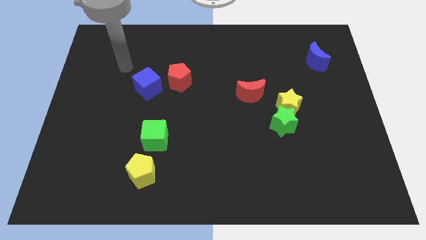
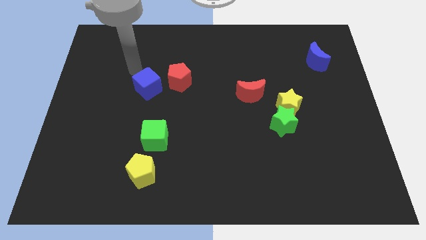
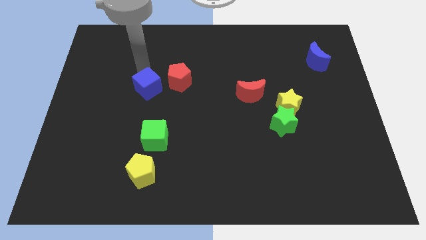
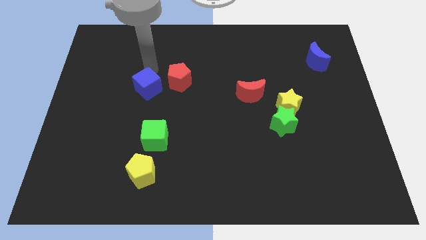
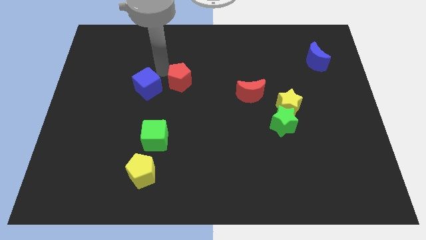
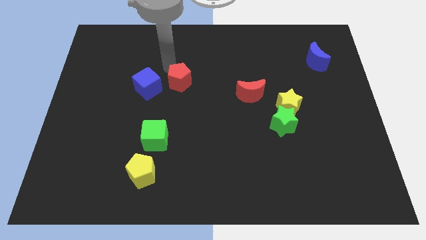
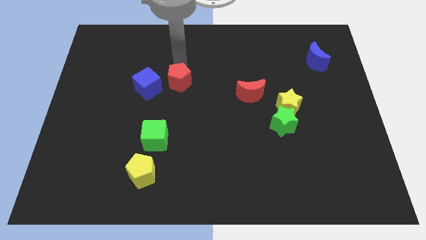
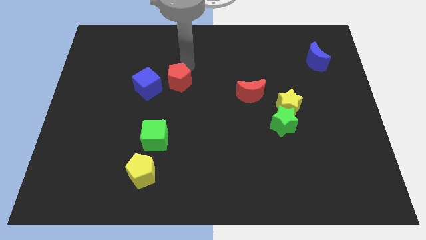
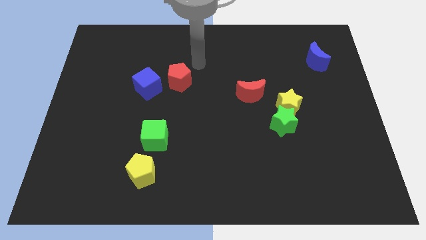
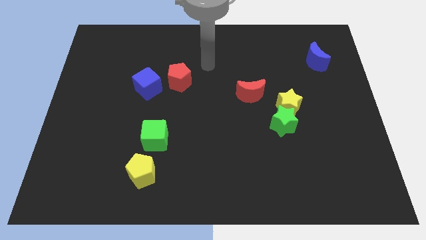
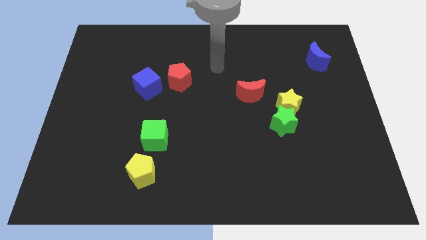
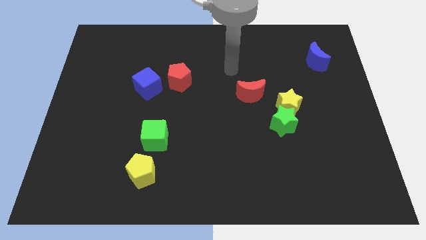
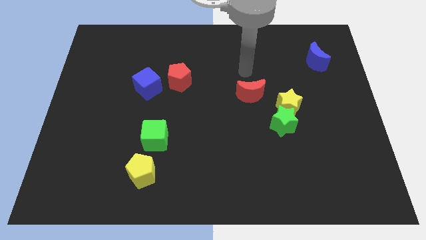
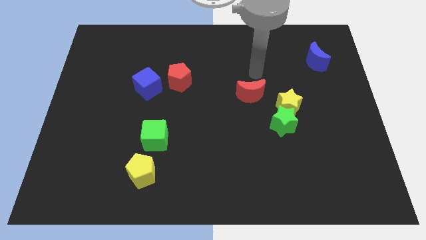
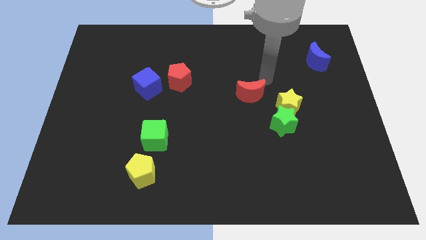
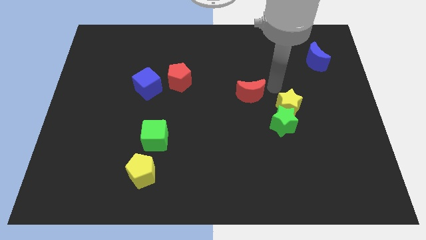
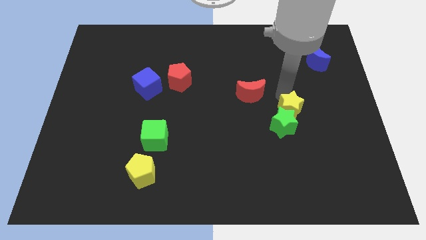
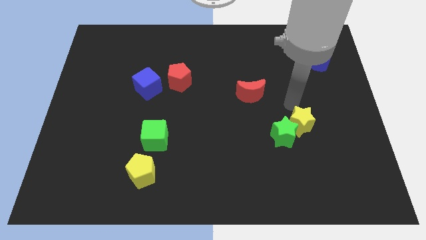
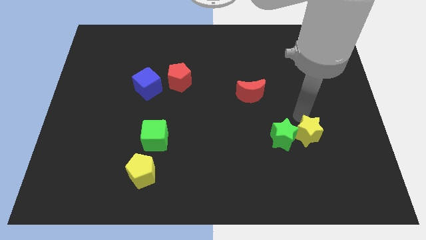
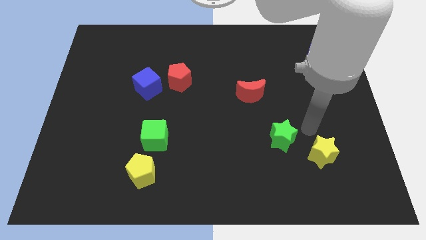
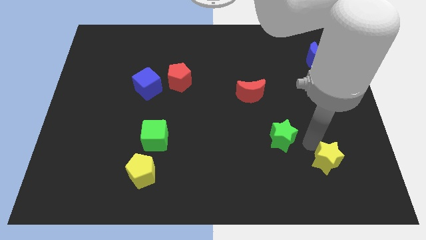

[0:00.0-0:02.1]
pull the green star apart from the yellow star

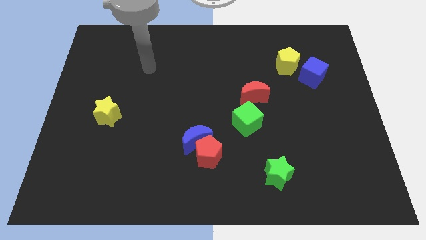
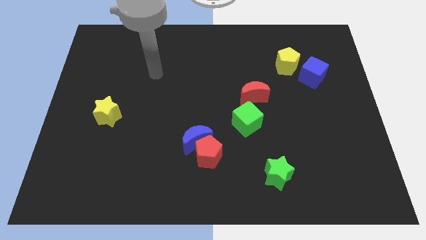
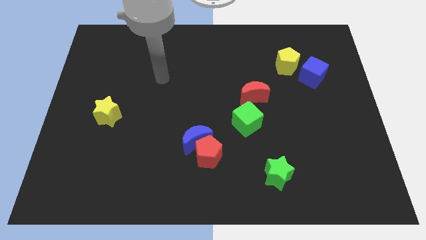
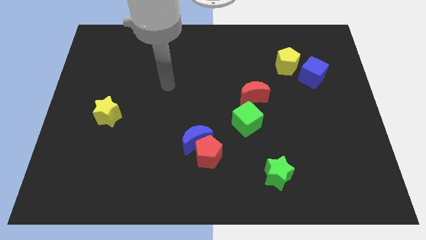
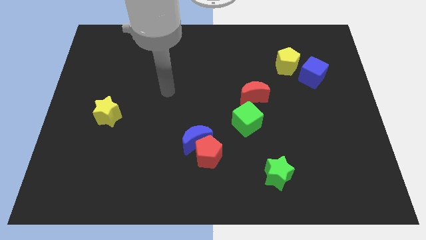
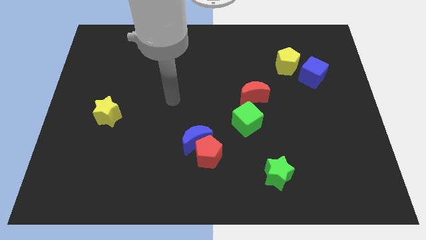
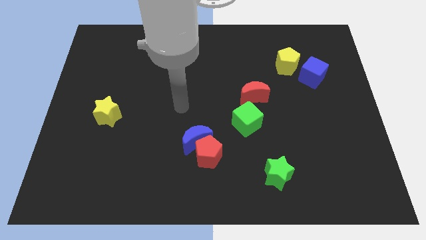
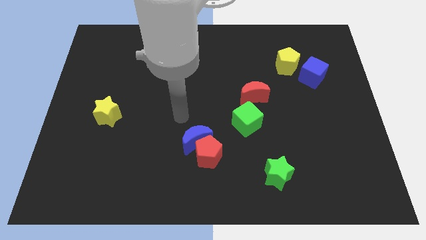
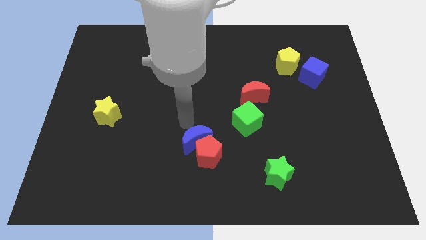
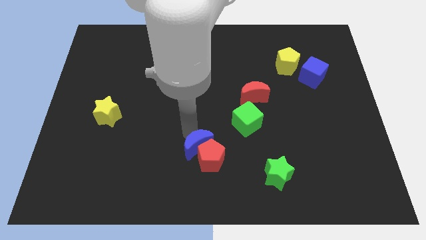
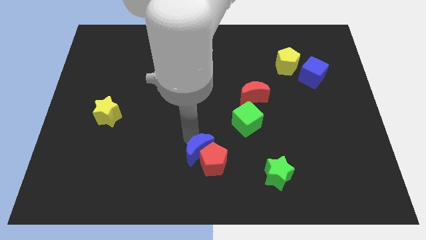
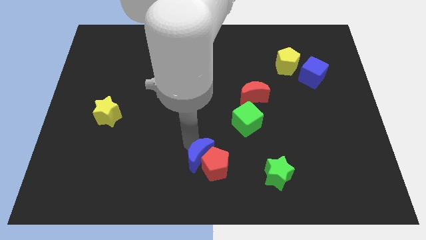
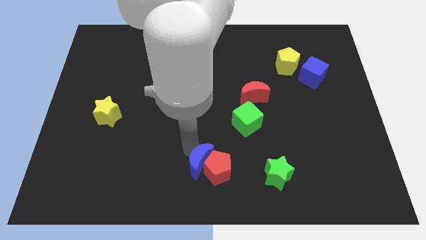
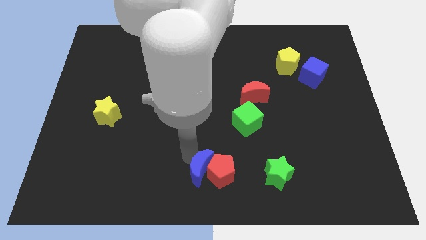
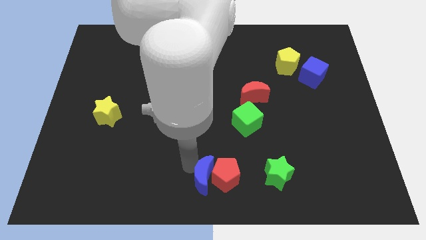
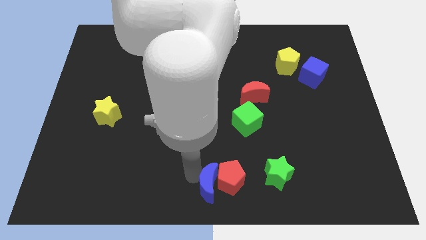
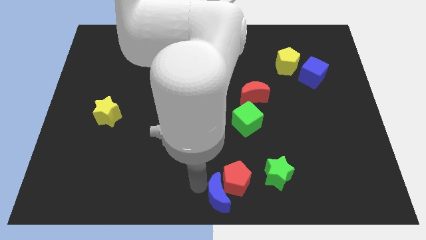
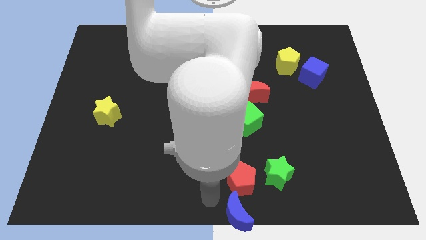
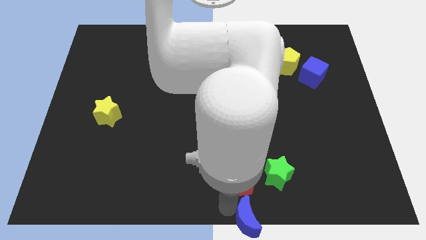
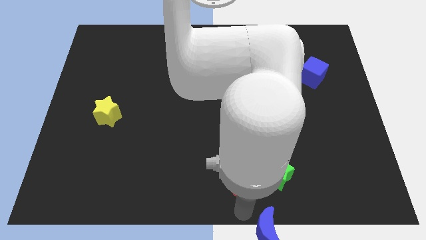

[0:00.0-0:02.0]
pull the red pentagon apart from the blue moon

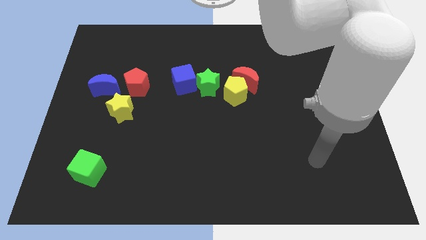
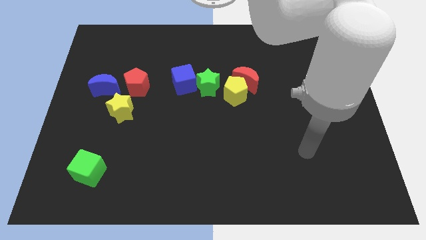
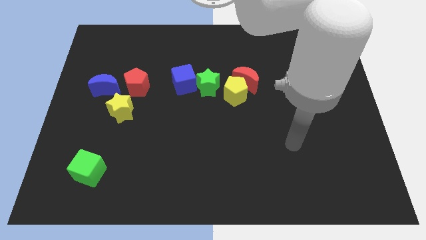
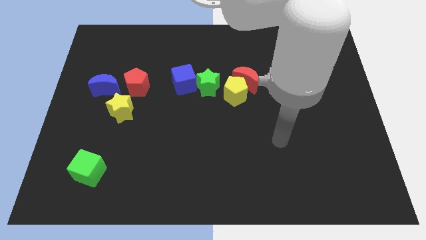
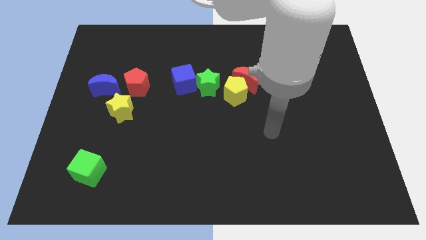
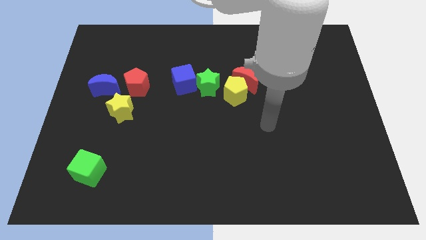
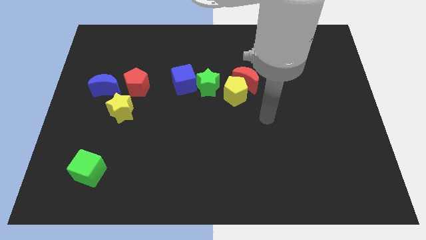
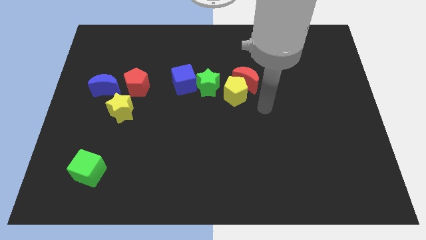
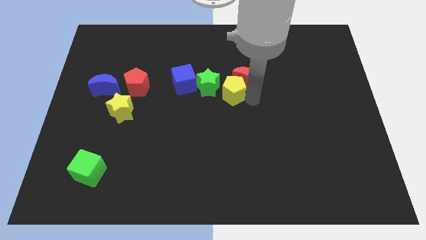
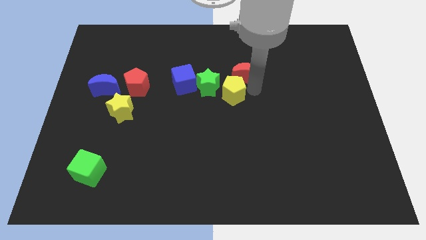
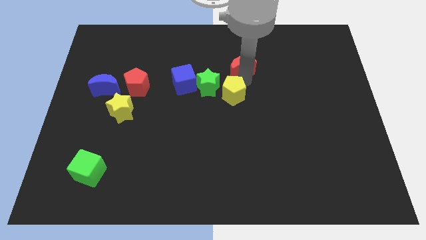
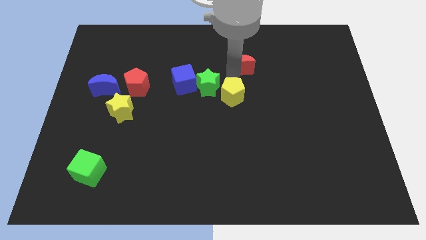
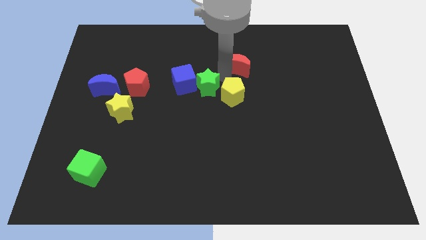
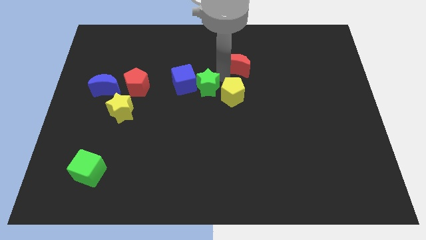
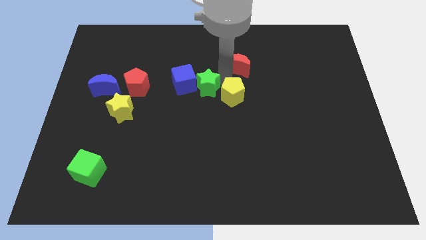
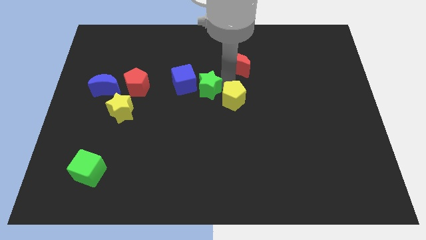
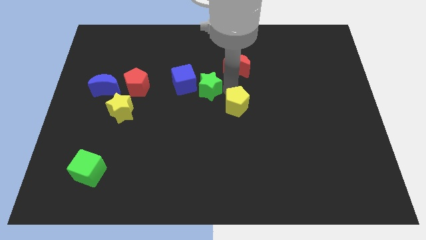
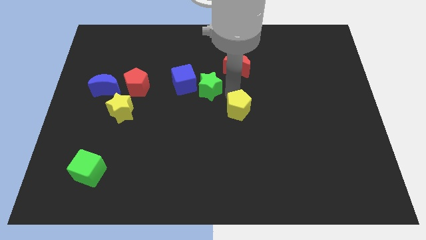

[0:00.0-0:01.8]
pull the yellow pentagon apart from the red moon and green star

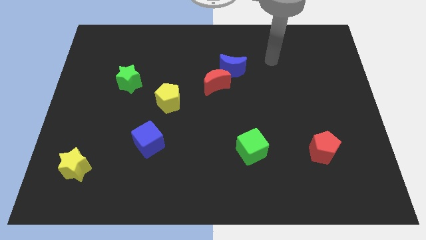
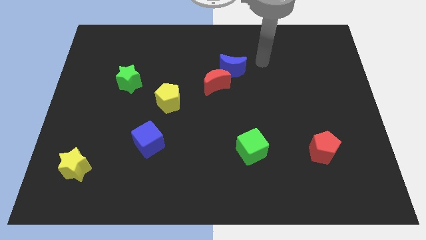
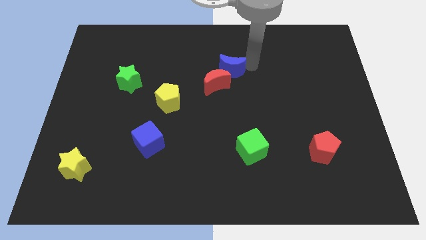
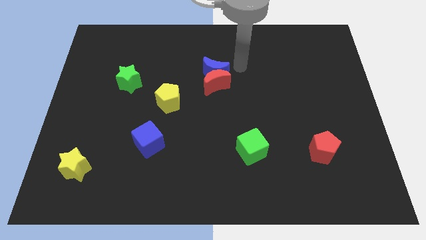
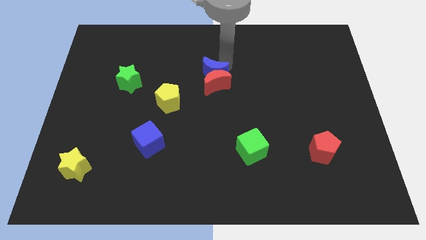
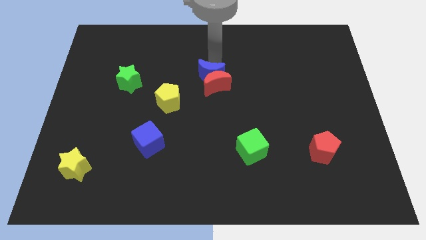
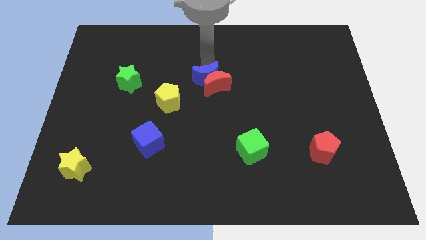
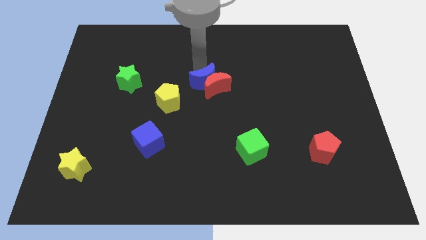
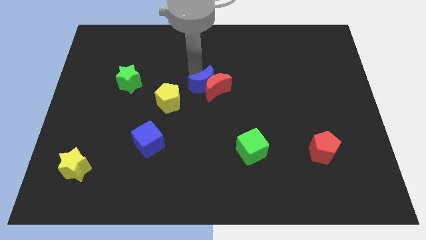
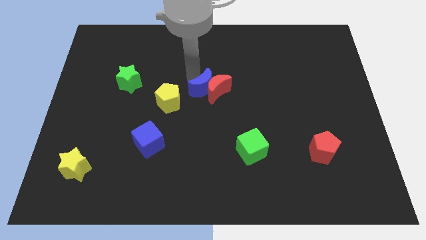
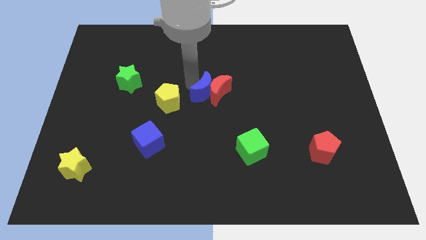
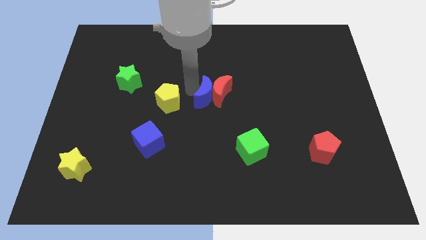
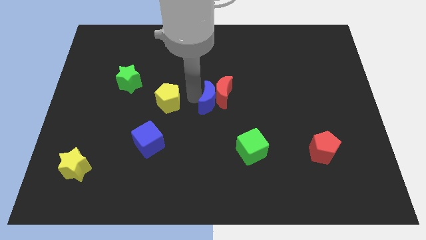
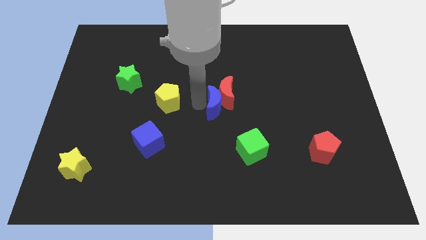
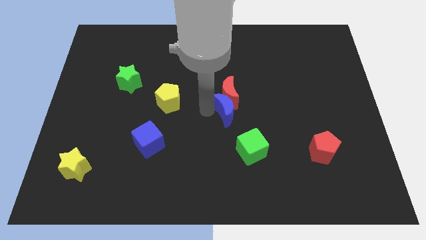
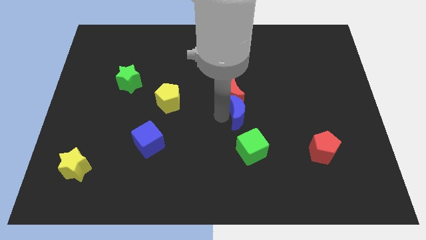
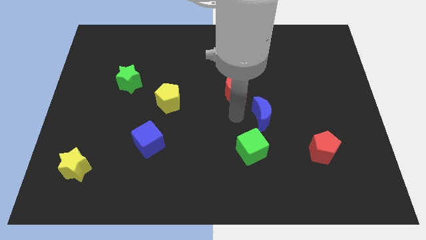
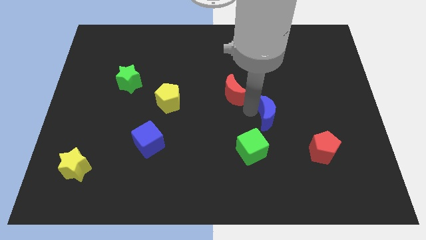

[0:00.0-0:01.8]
move the red moon away from the blue moon

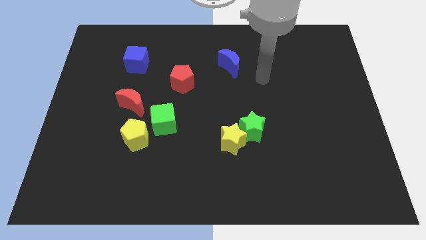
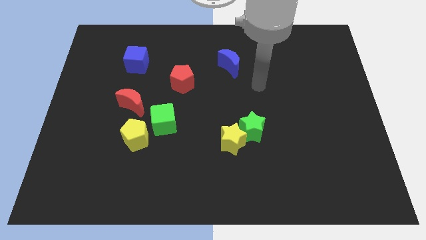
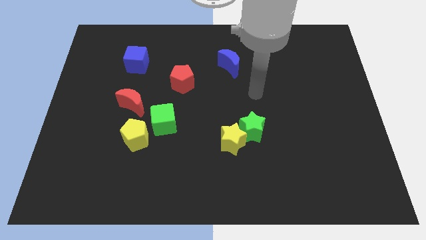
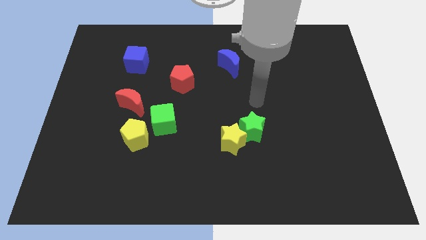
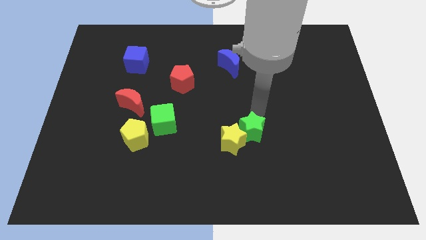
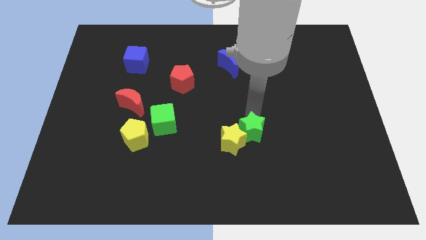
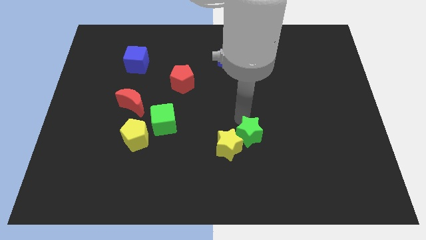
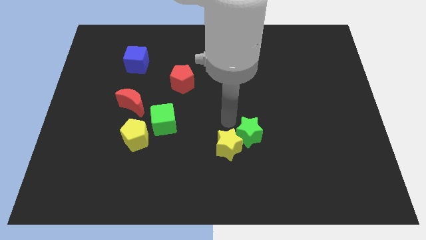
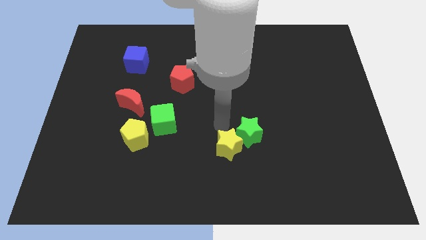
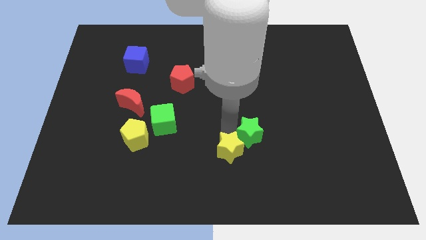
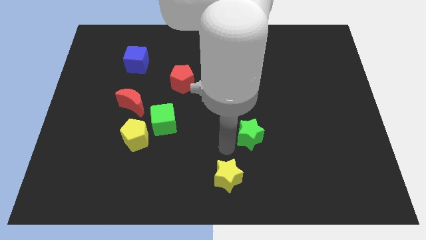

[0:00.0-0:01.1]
separate the green star from the yellow star

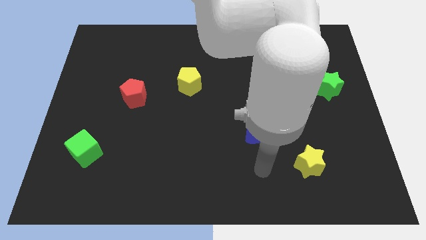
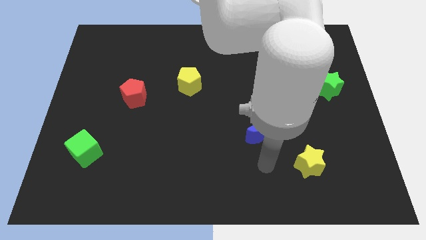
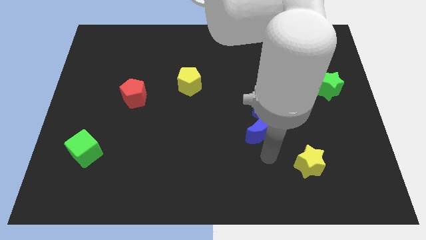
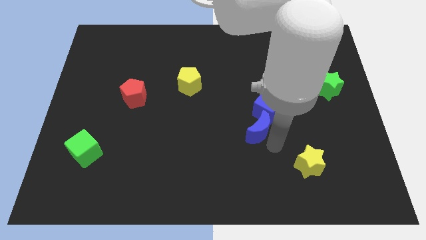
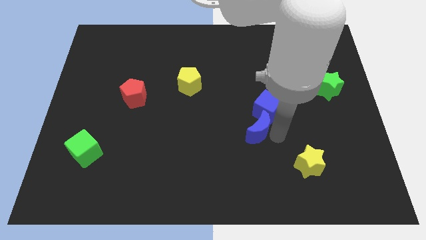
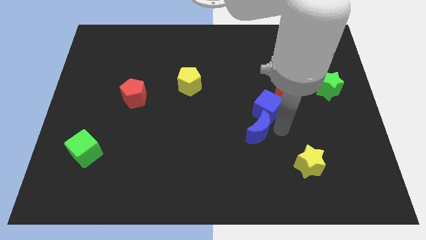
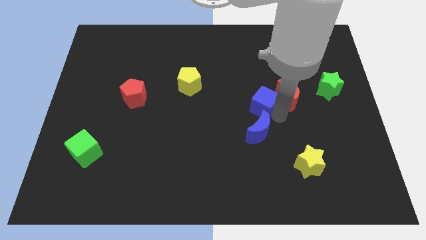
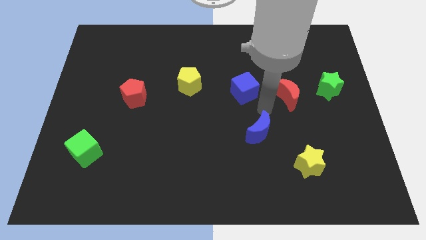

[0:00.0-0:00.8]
separate the blue moon from the blue cube
